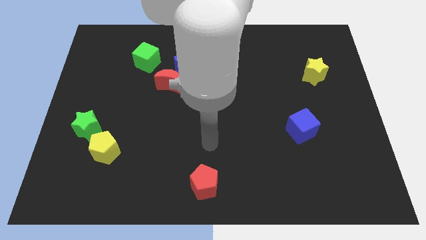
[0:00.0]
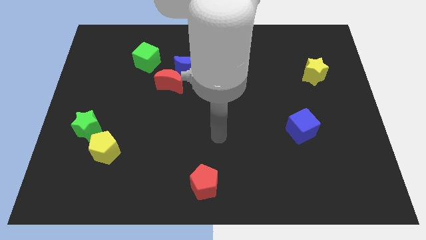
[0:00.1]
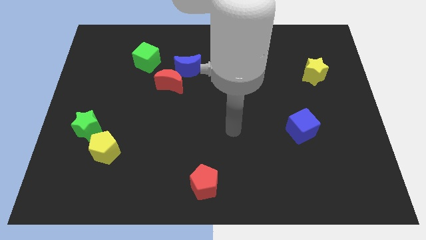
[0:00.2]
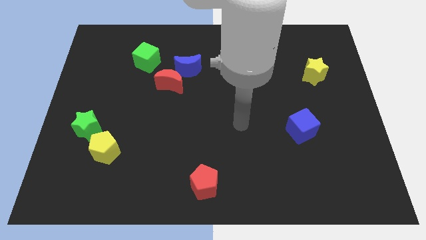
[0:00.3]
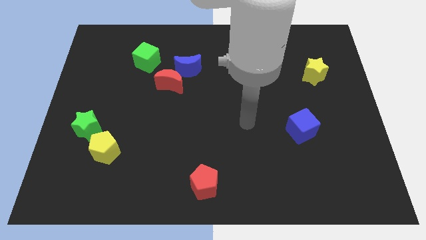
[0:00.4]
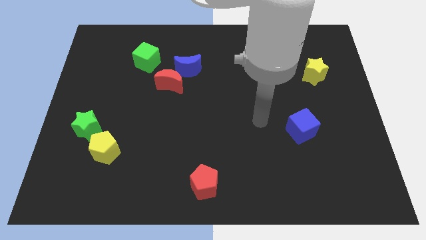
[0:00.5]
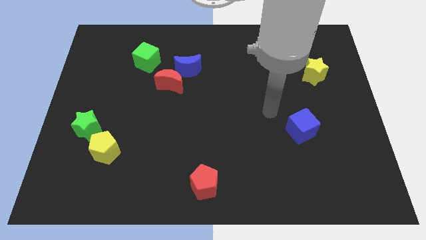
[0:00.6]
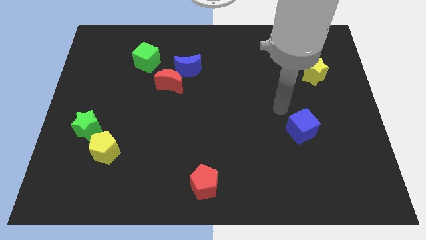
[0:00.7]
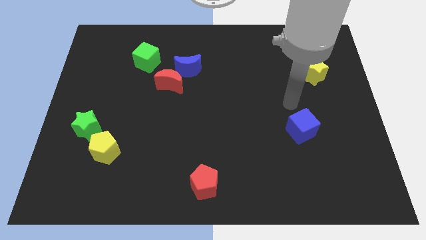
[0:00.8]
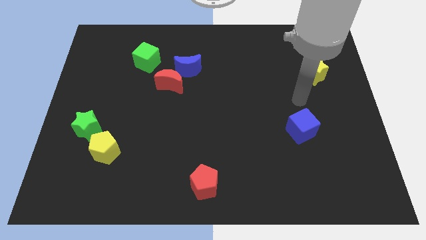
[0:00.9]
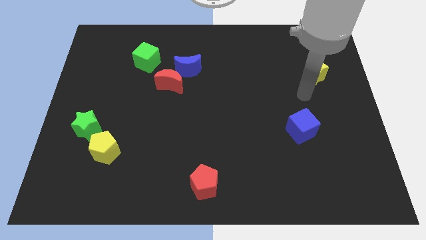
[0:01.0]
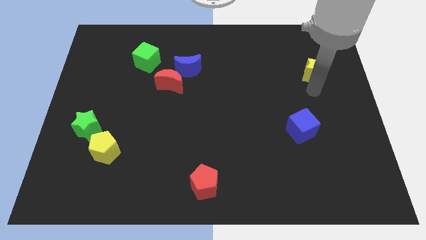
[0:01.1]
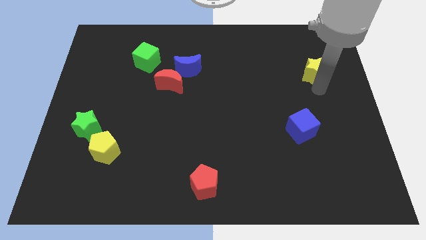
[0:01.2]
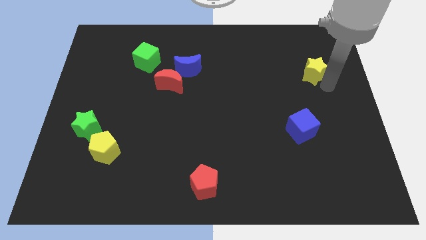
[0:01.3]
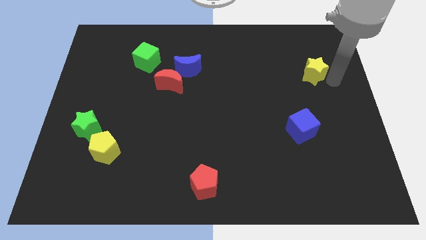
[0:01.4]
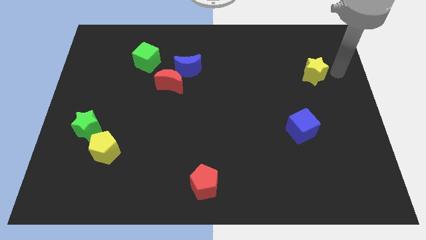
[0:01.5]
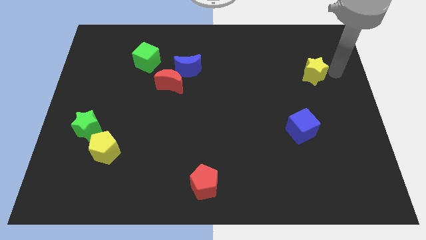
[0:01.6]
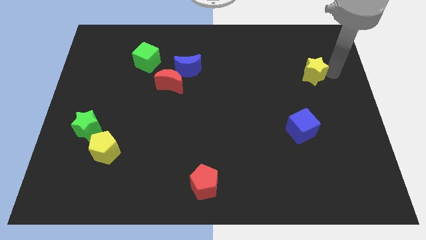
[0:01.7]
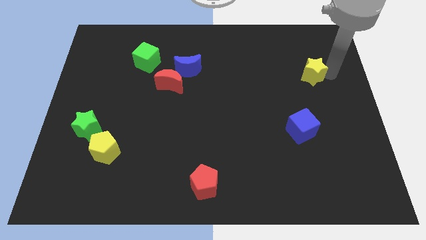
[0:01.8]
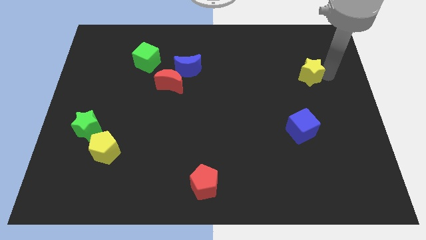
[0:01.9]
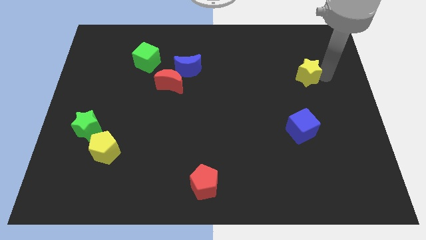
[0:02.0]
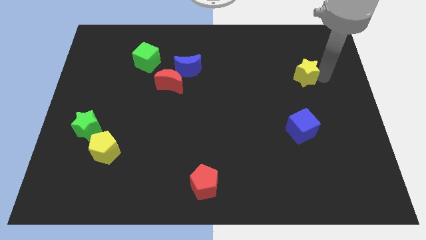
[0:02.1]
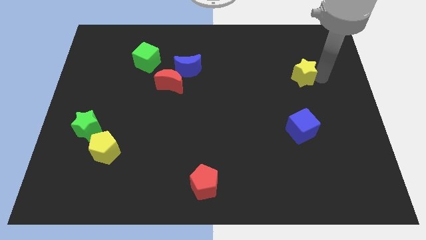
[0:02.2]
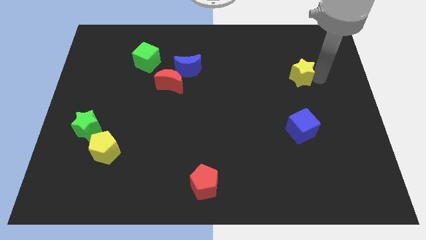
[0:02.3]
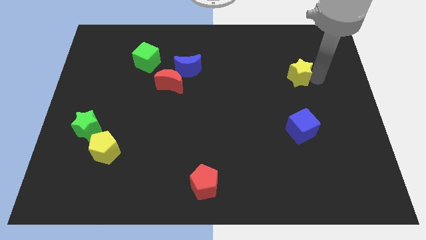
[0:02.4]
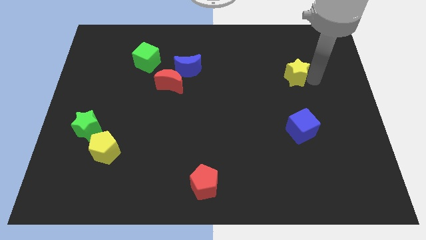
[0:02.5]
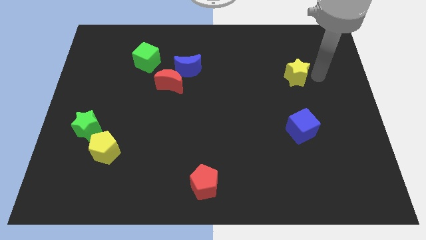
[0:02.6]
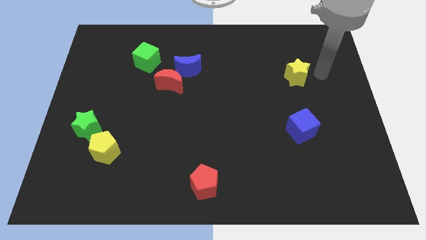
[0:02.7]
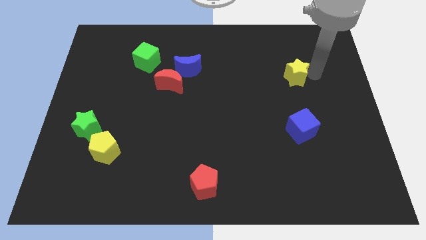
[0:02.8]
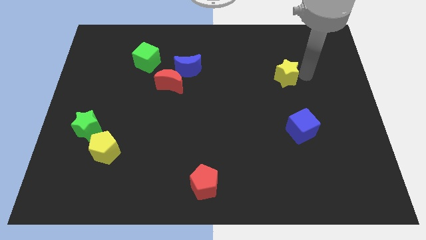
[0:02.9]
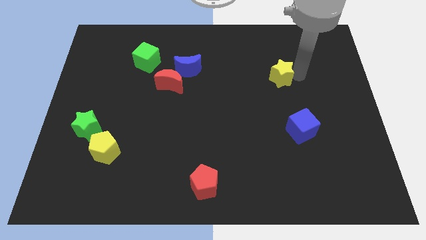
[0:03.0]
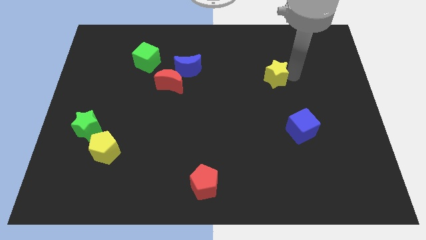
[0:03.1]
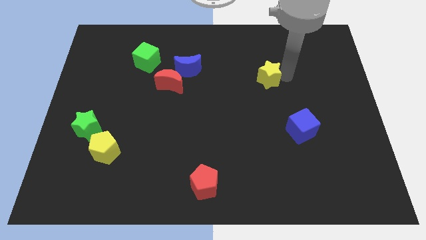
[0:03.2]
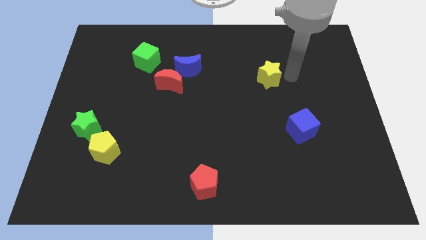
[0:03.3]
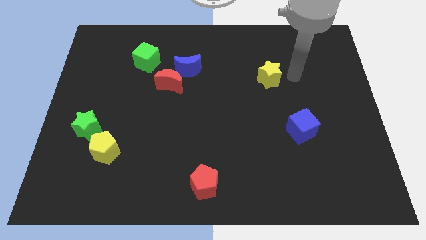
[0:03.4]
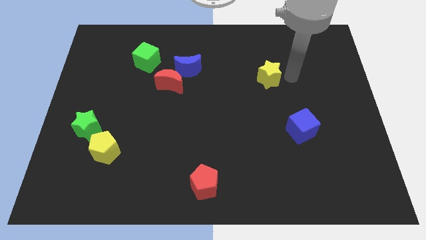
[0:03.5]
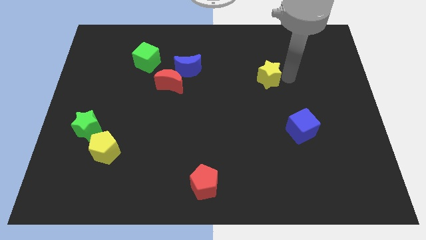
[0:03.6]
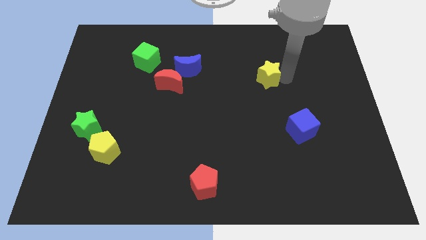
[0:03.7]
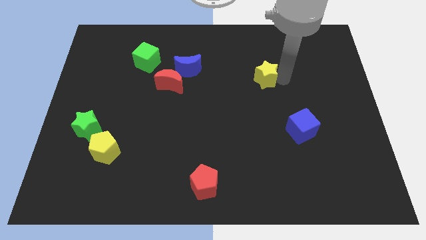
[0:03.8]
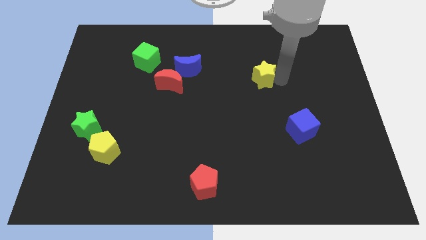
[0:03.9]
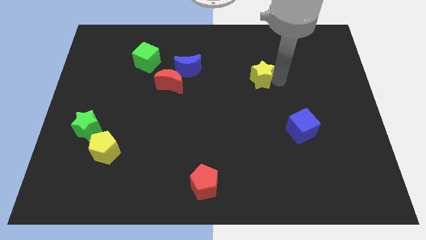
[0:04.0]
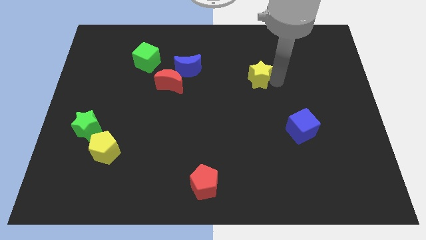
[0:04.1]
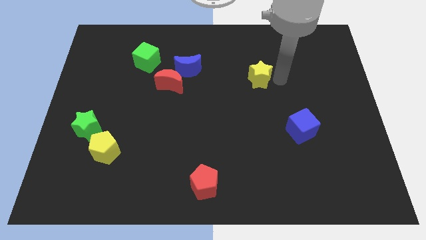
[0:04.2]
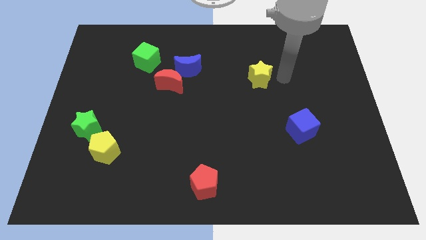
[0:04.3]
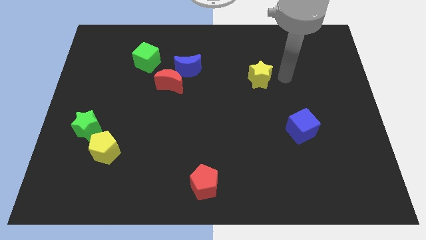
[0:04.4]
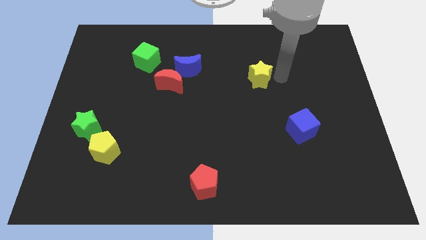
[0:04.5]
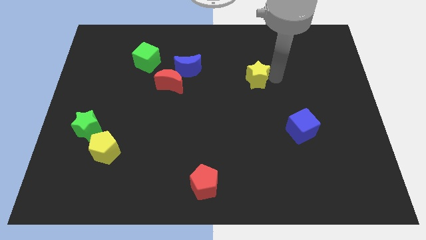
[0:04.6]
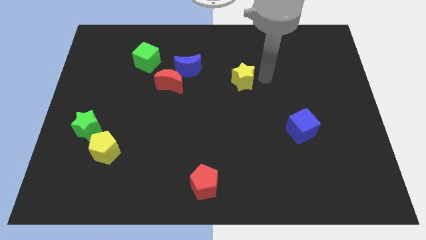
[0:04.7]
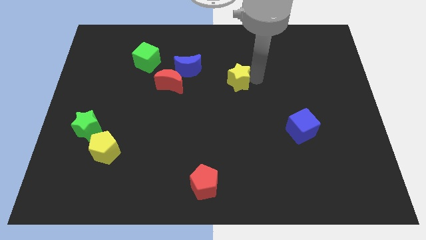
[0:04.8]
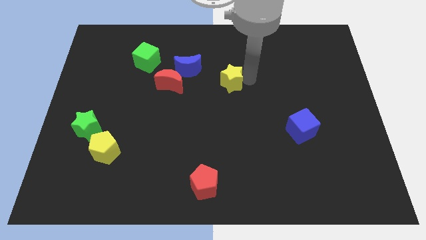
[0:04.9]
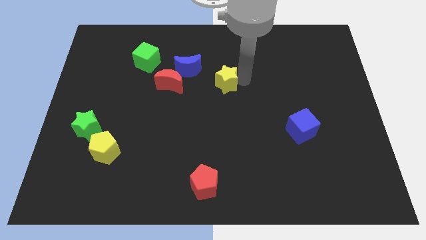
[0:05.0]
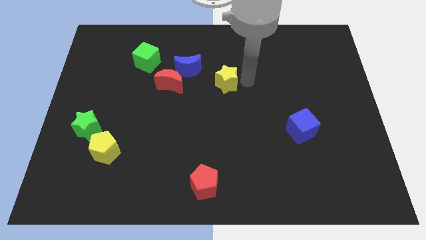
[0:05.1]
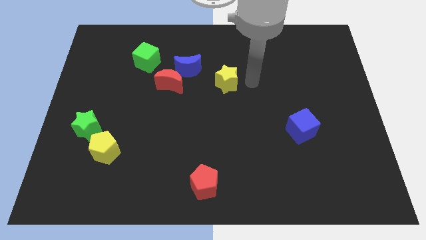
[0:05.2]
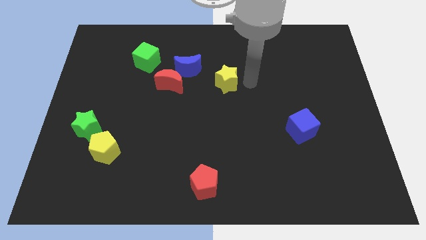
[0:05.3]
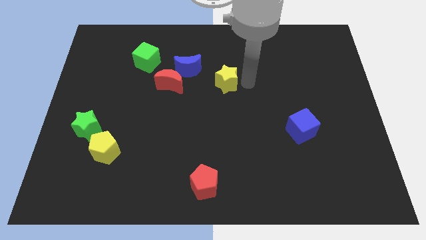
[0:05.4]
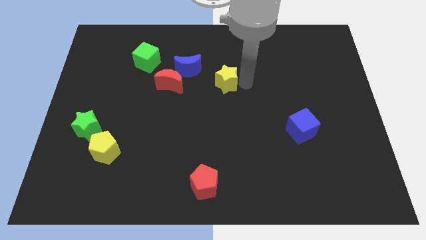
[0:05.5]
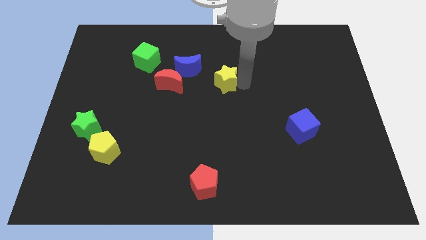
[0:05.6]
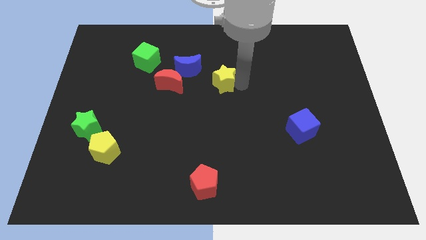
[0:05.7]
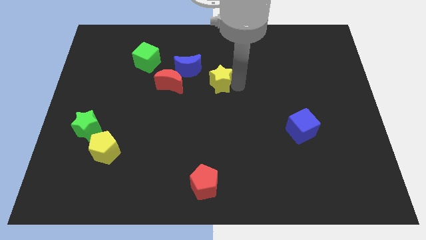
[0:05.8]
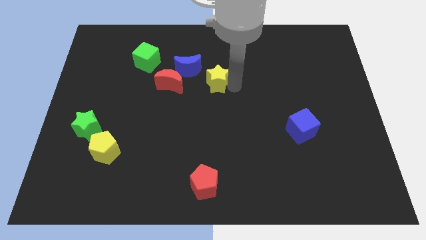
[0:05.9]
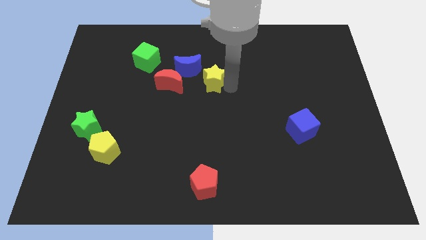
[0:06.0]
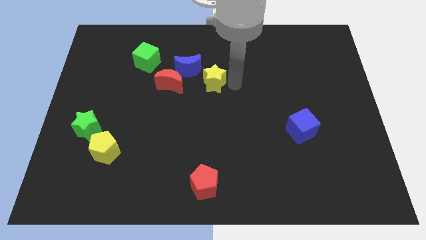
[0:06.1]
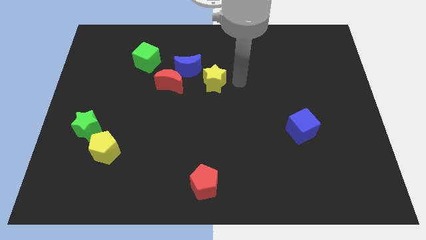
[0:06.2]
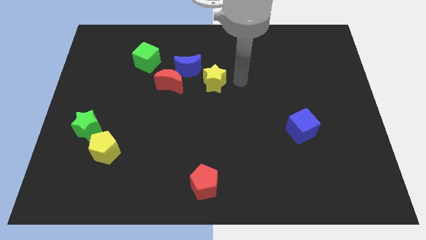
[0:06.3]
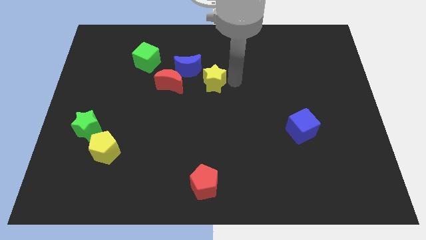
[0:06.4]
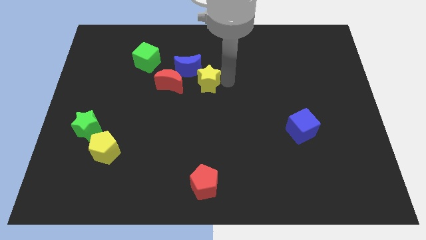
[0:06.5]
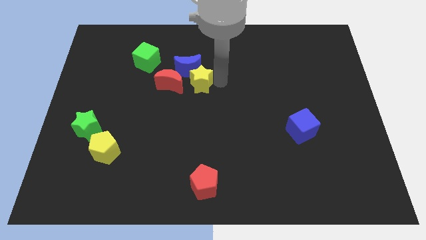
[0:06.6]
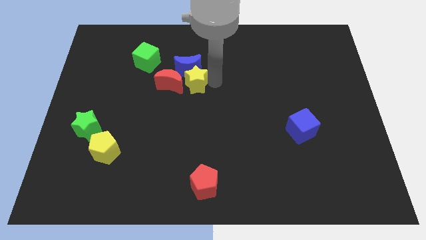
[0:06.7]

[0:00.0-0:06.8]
slide the yellow star close to the red moon
